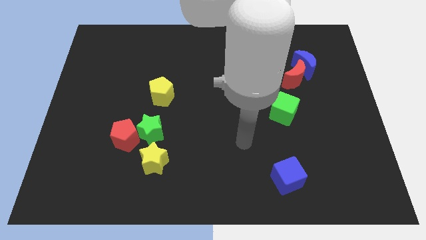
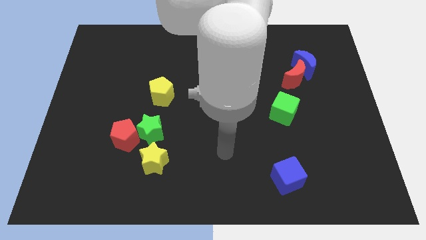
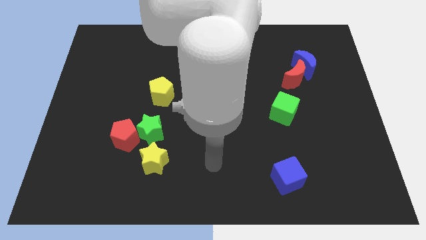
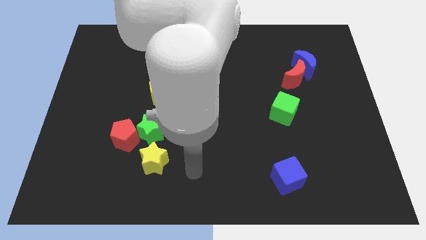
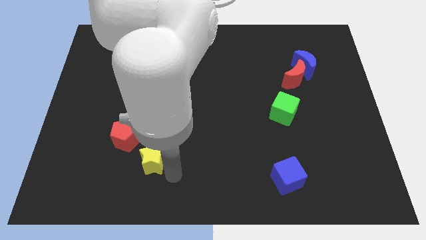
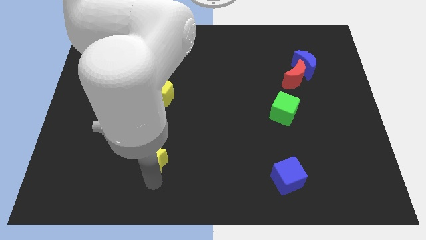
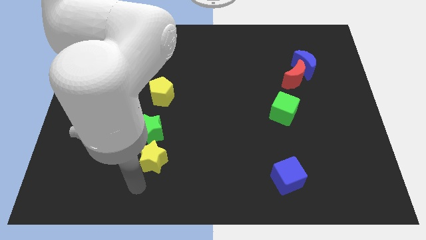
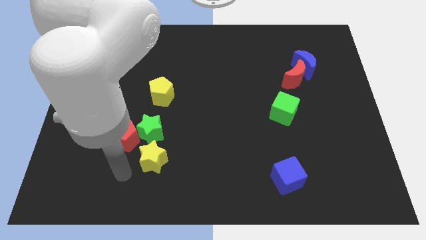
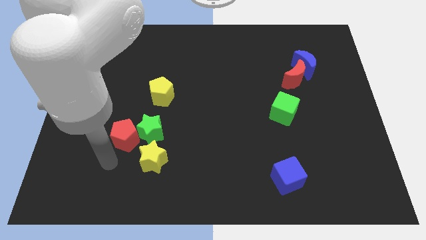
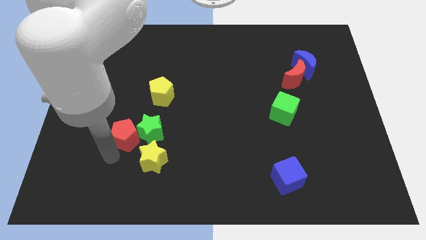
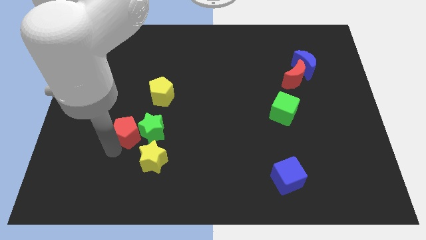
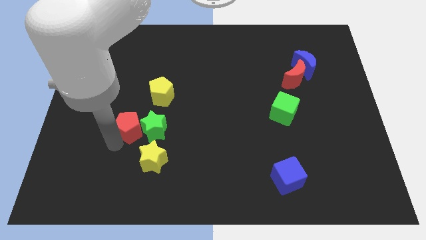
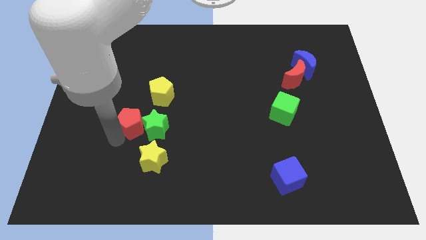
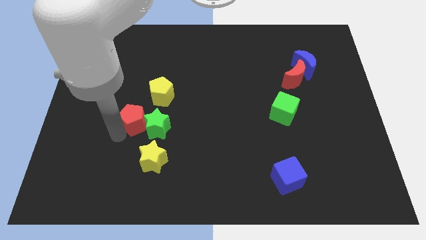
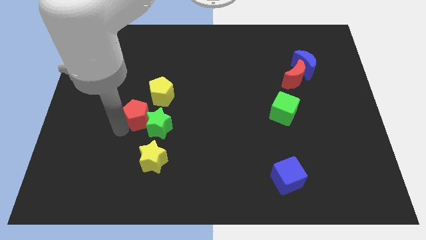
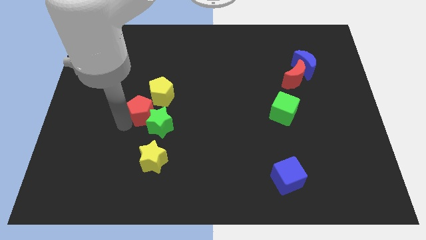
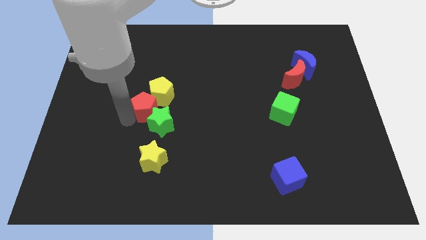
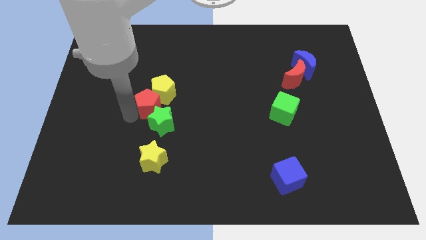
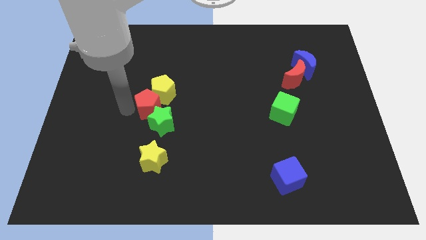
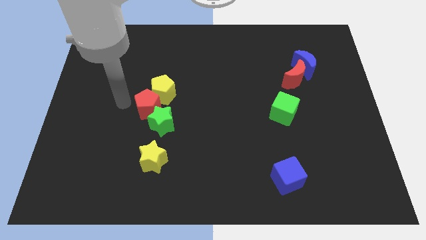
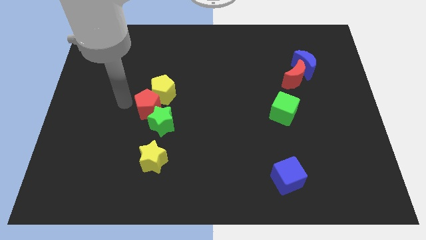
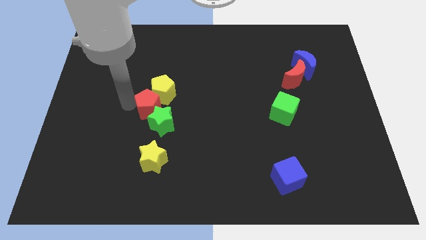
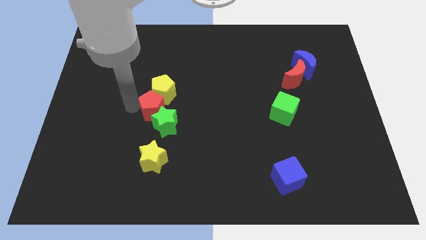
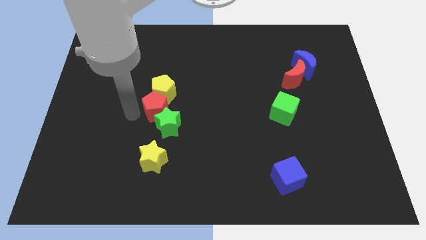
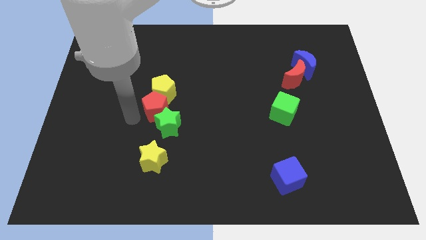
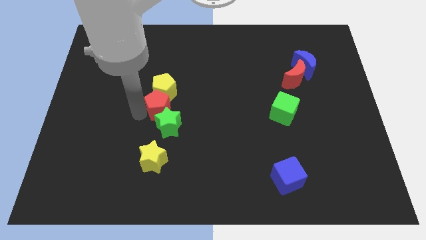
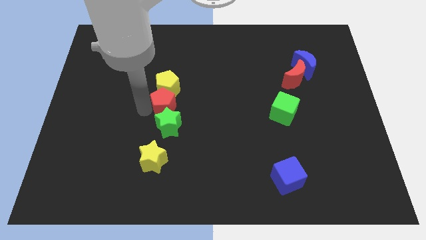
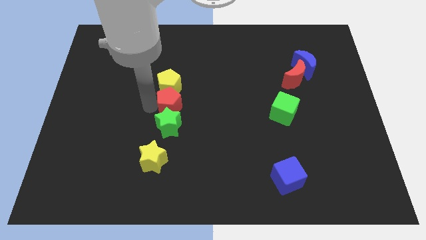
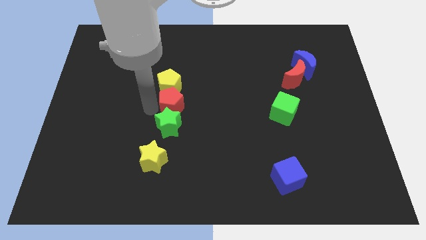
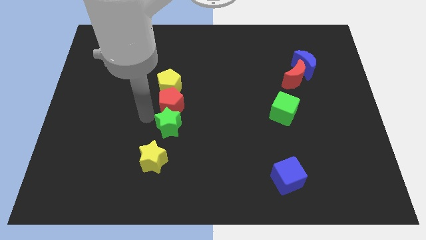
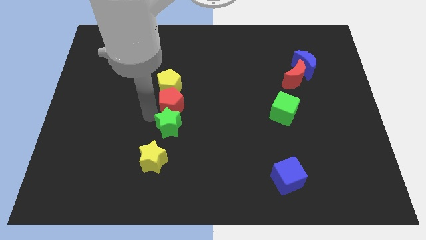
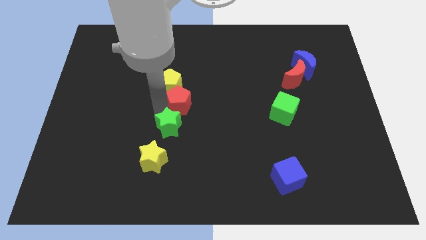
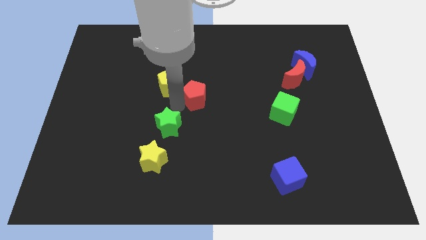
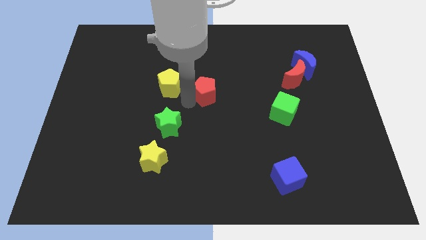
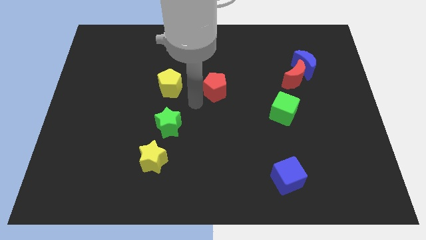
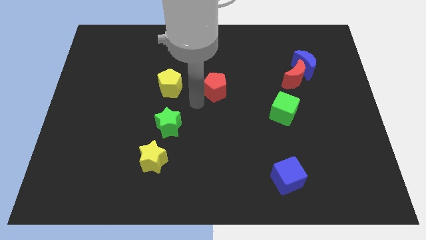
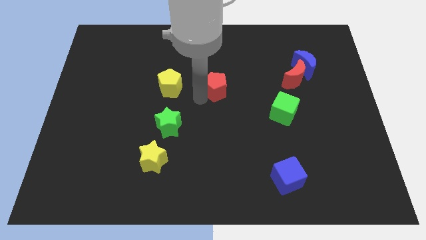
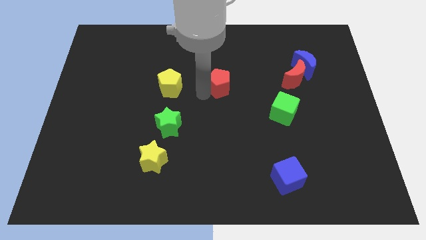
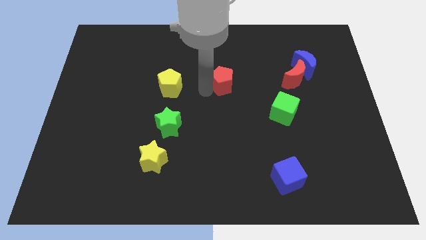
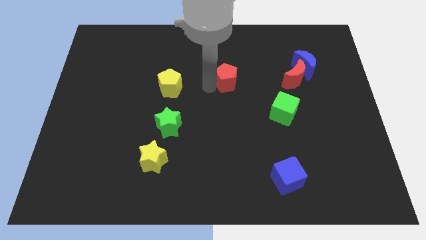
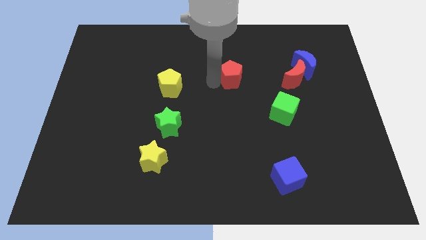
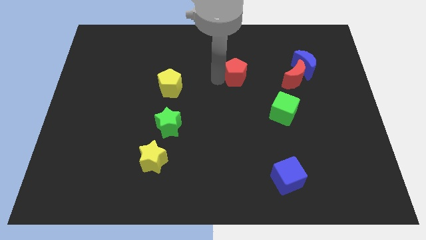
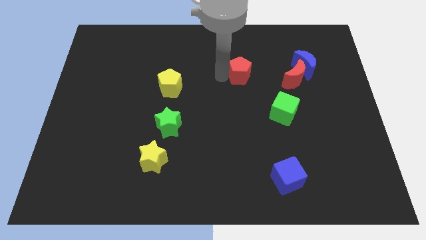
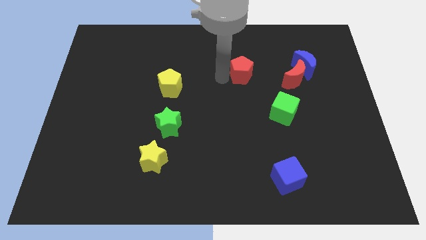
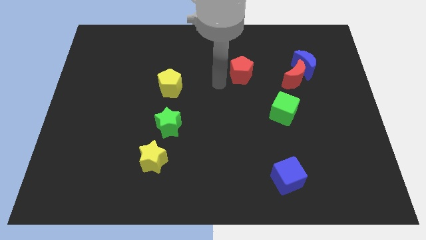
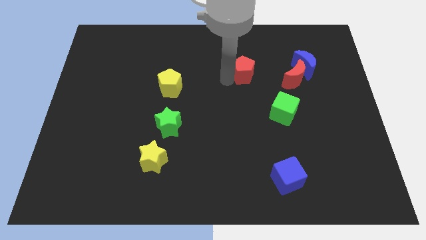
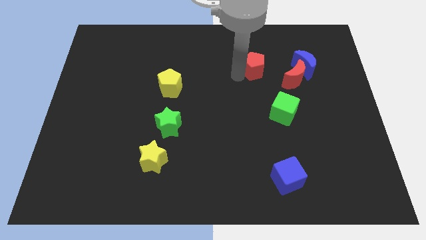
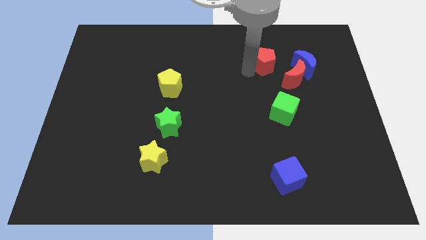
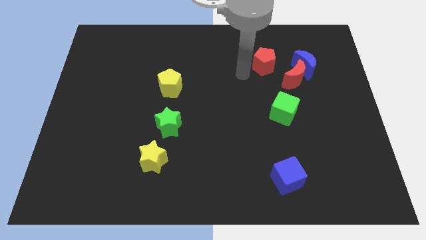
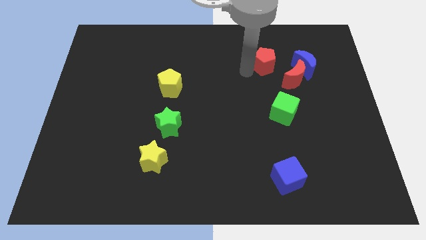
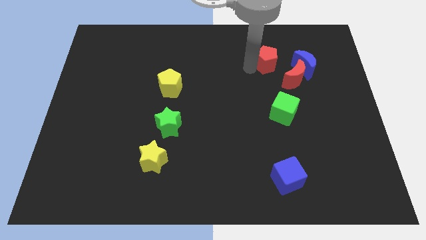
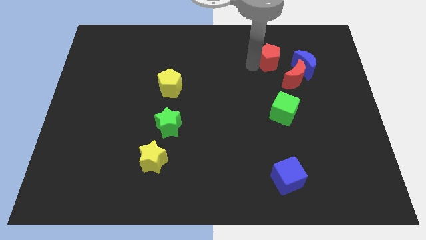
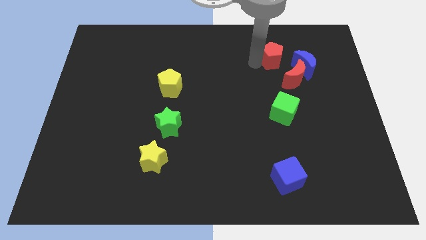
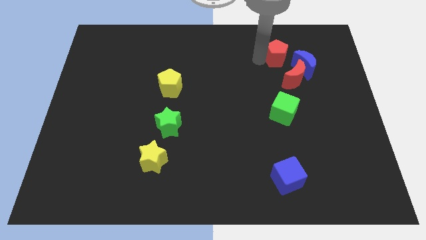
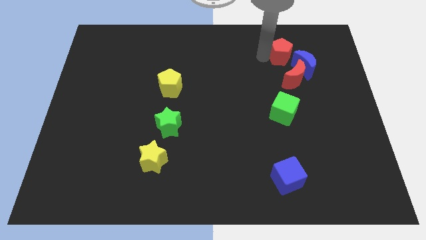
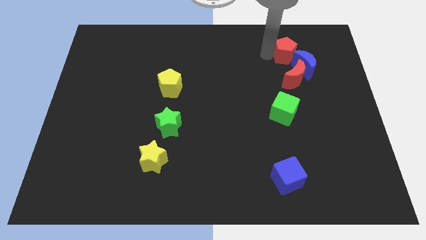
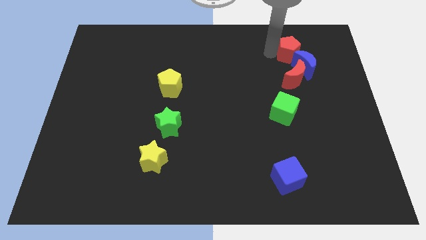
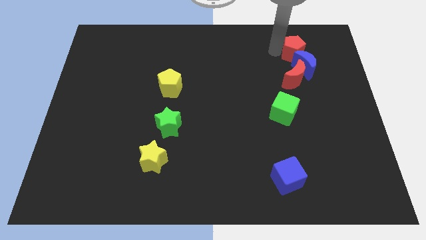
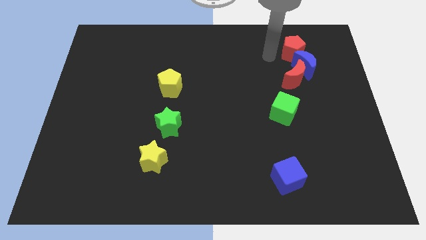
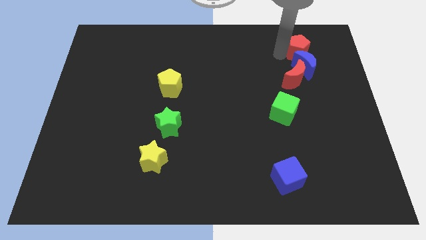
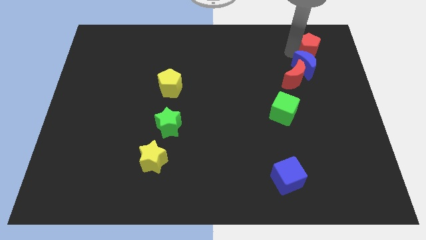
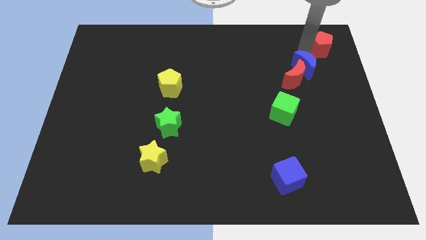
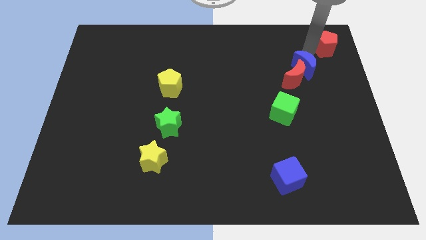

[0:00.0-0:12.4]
move the red pentagon to the top right corner

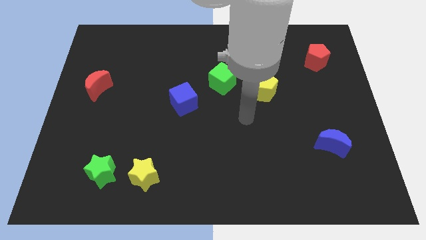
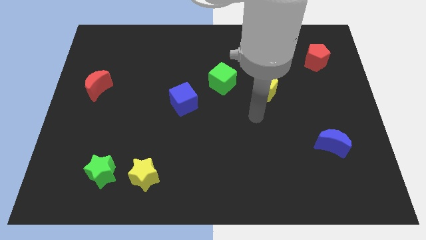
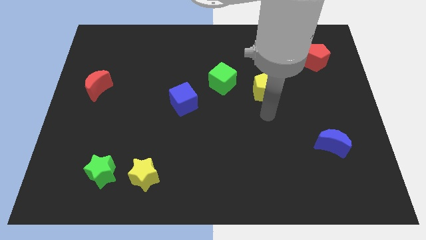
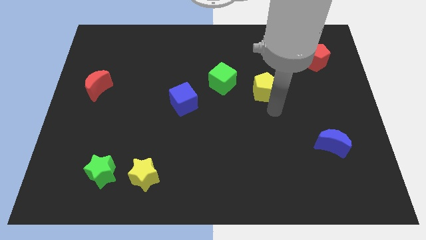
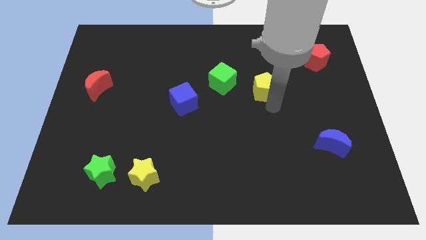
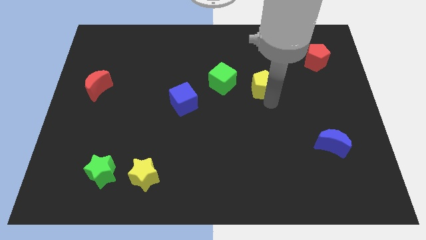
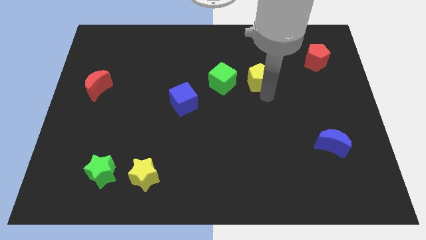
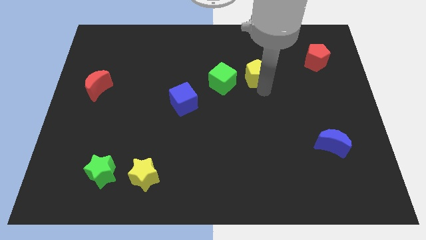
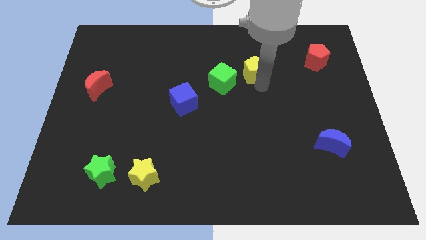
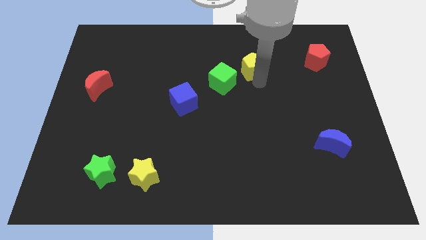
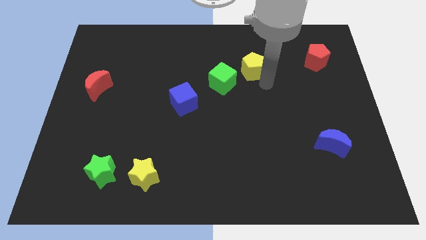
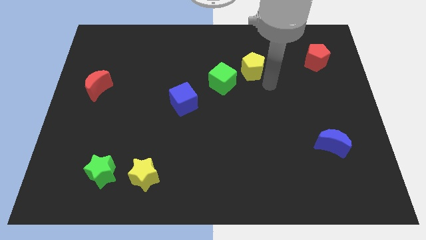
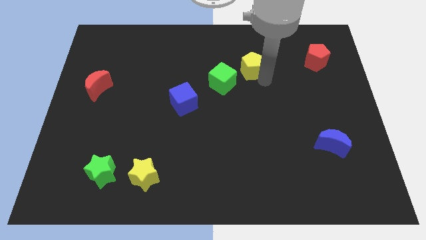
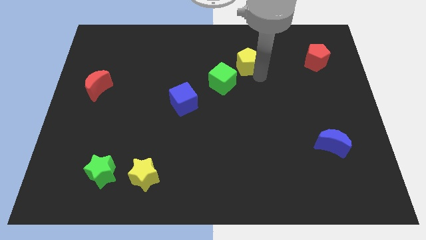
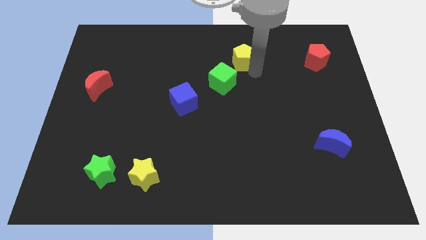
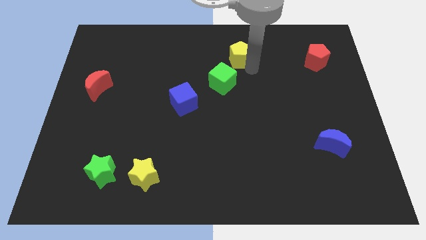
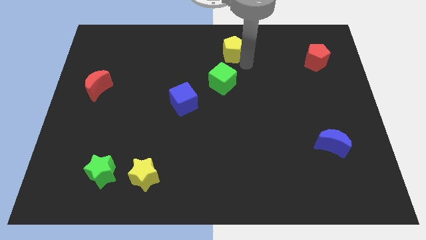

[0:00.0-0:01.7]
move the yellow pentagon to the top
